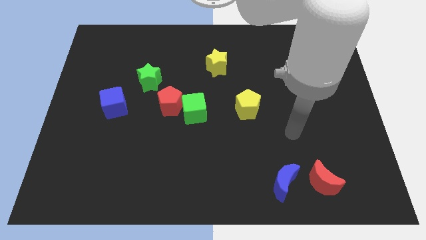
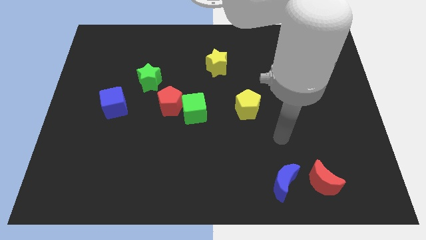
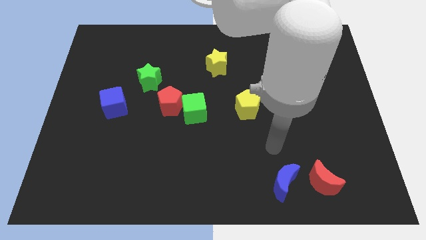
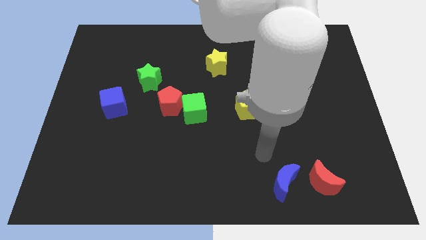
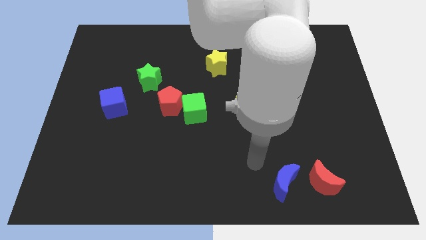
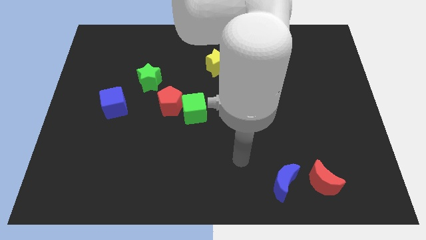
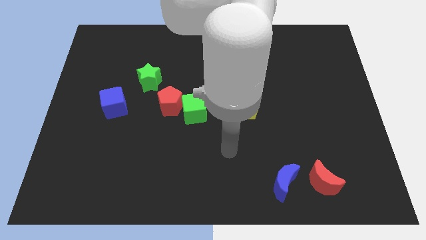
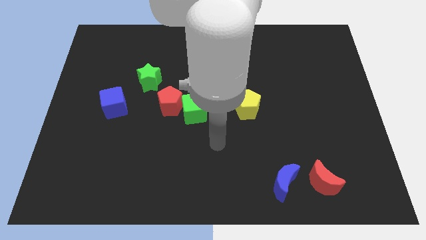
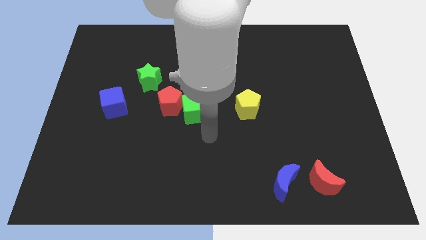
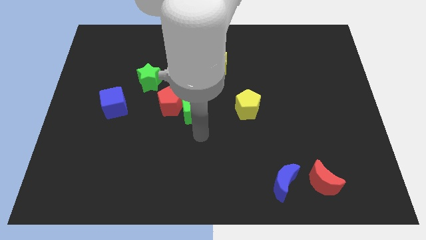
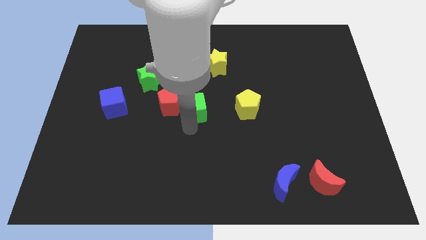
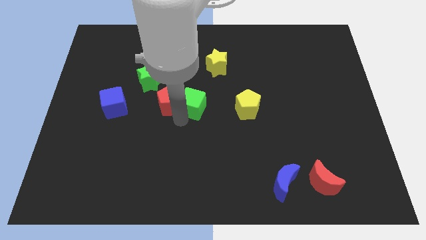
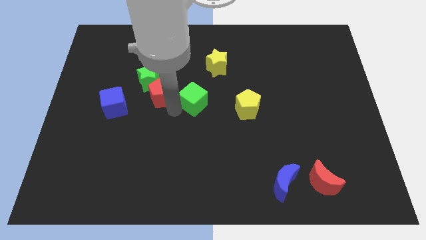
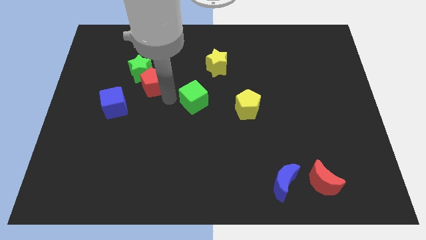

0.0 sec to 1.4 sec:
pull the green cube apart from the red pentagon

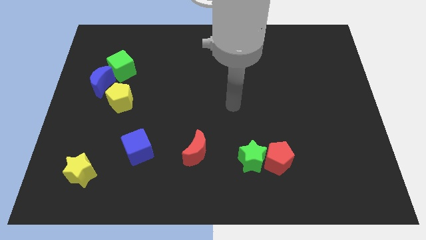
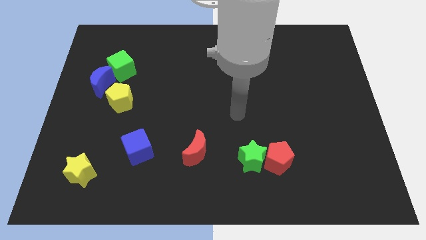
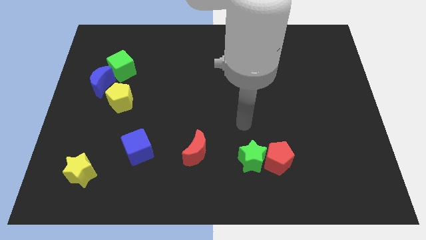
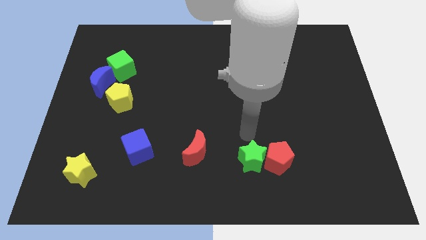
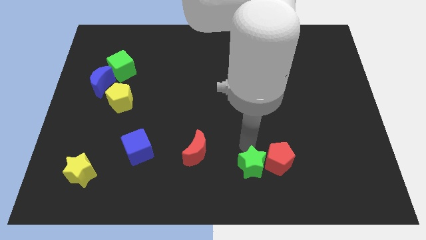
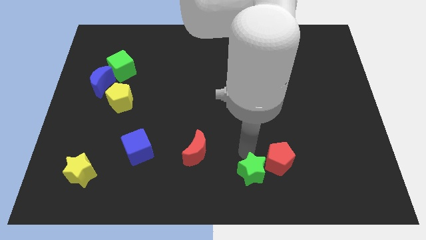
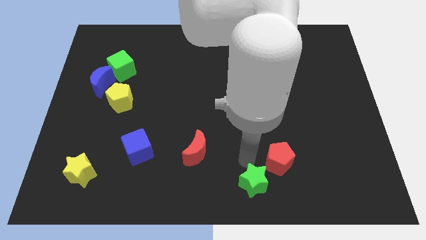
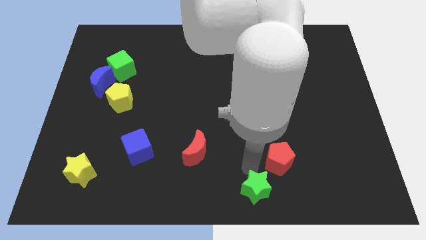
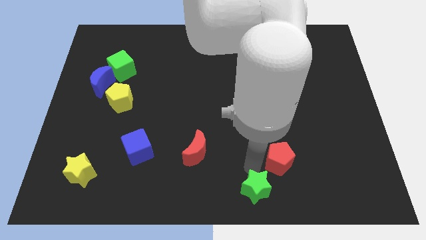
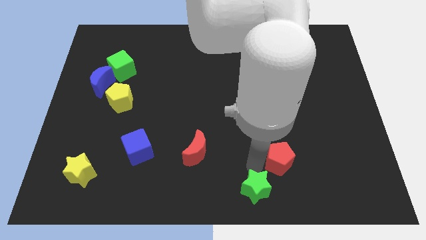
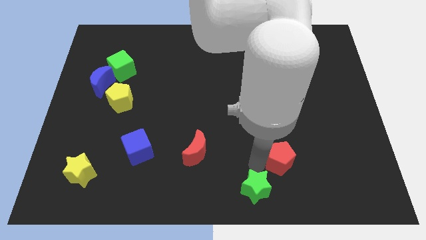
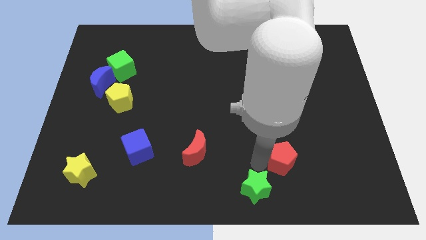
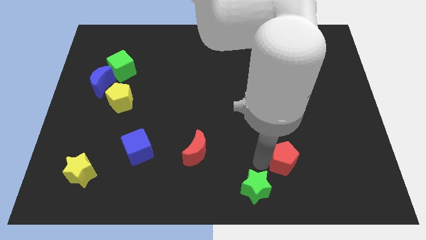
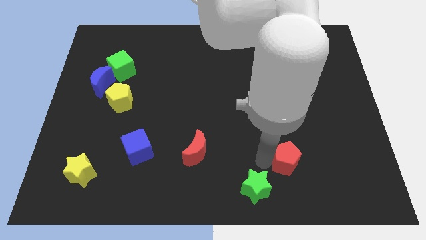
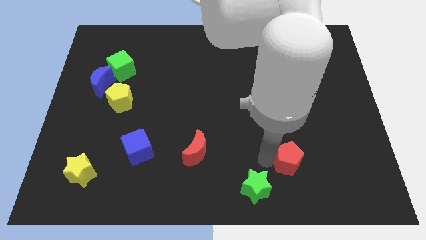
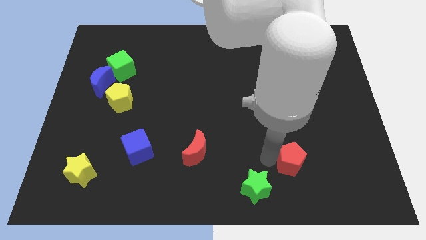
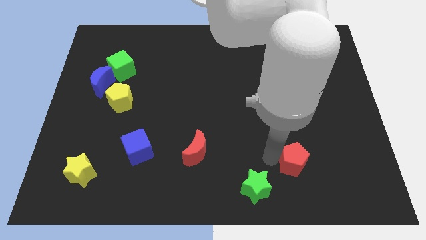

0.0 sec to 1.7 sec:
pull the red pentagon apart from the green star

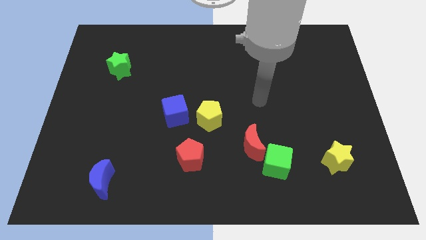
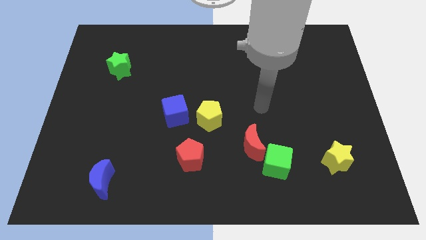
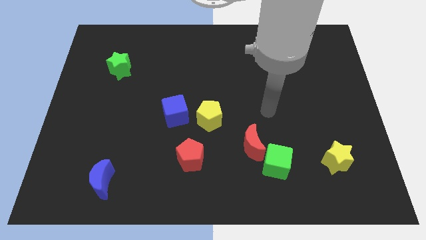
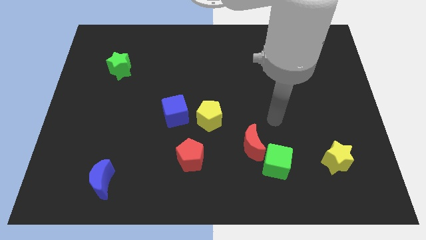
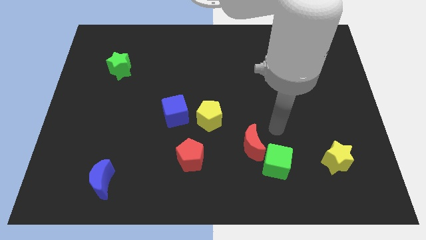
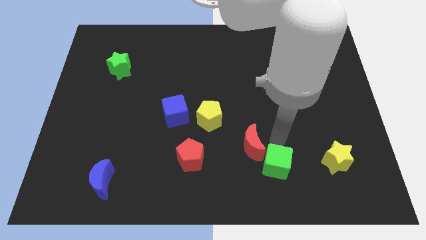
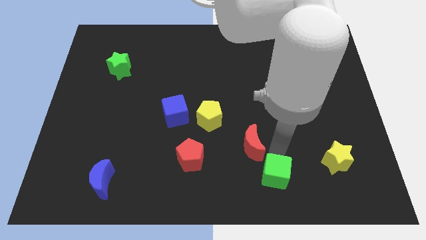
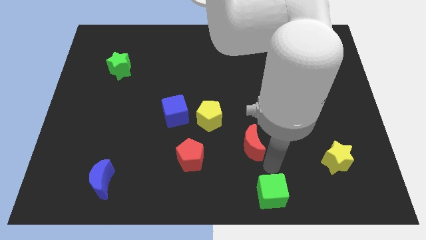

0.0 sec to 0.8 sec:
move the red moon away from the green cube

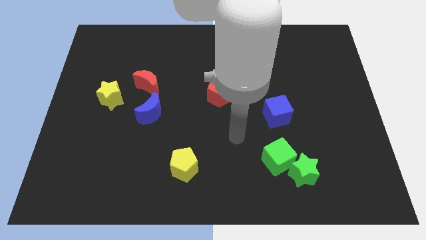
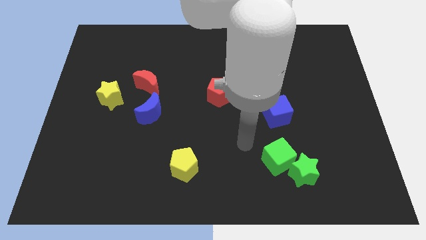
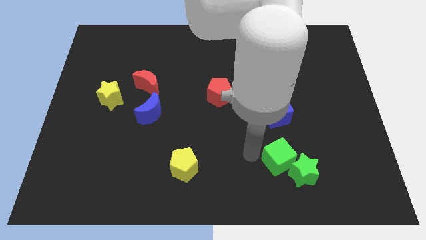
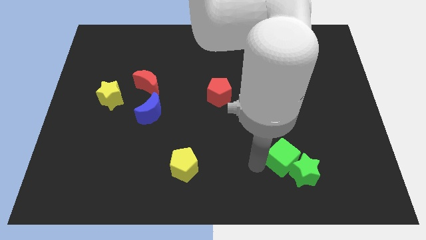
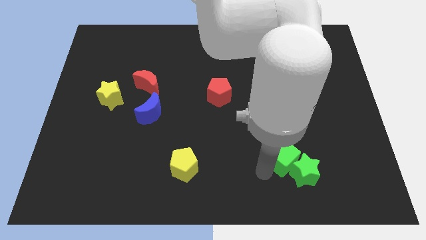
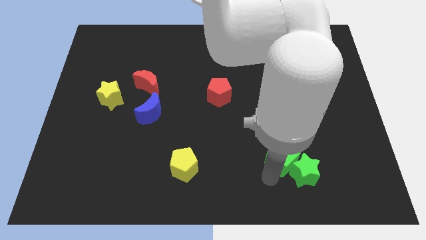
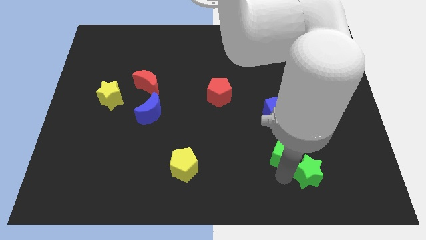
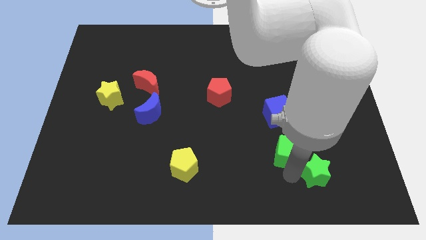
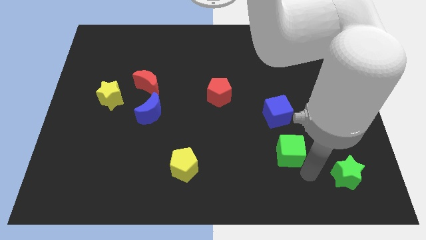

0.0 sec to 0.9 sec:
separate the green cube from the green star

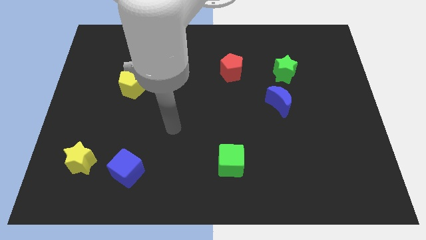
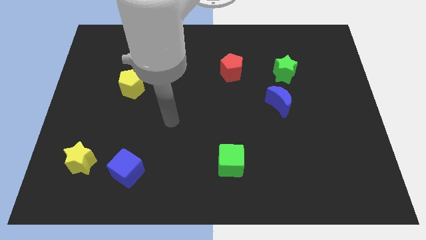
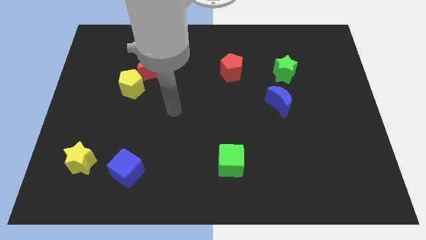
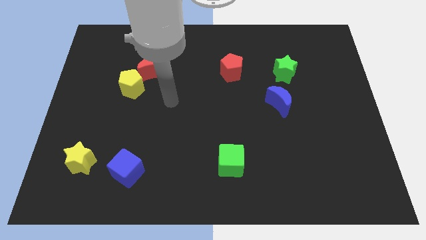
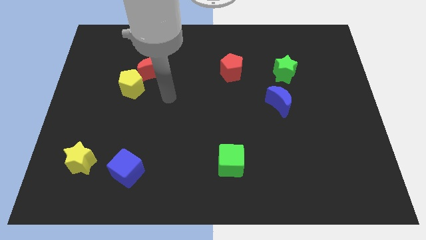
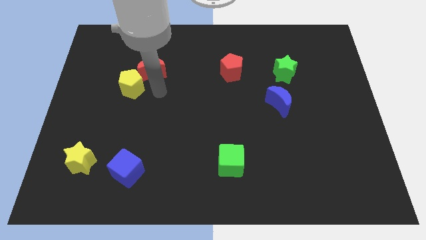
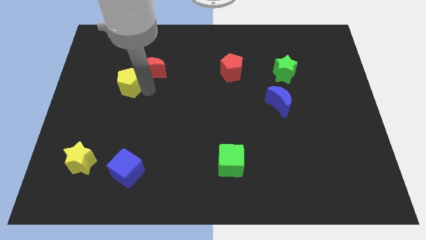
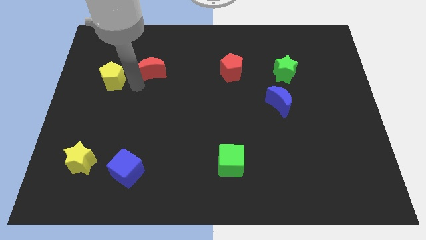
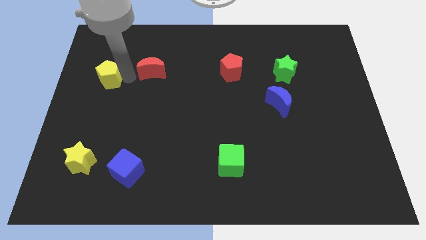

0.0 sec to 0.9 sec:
move the red moon away from the yellow pentagon

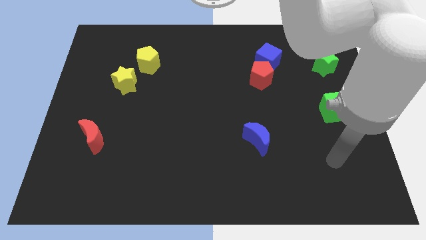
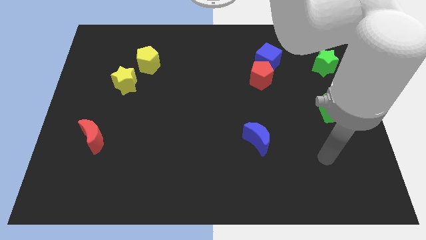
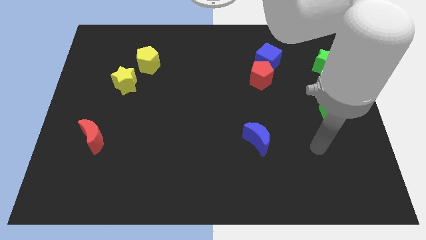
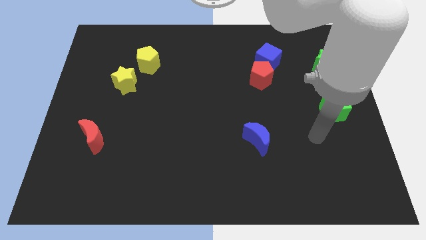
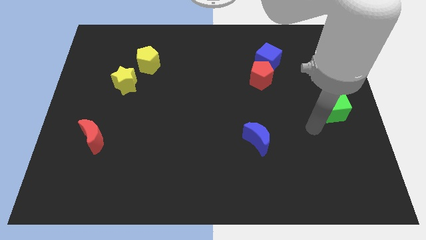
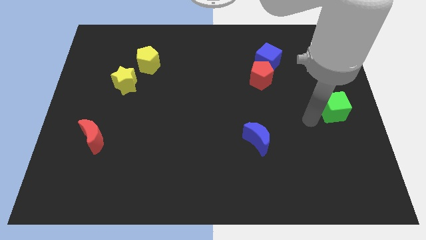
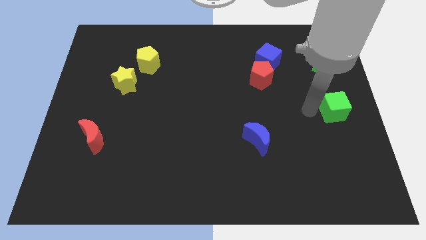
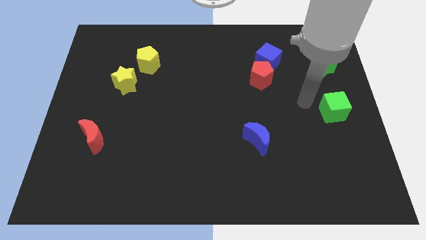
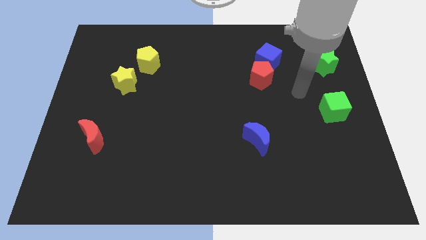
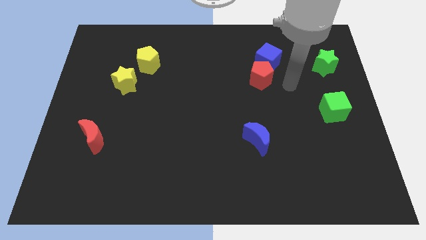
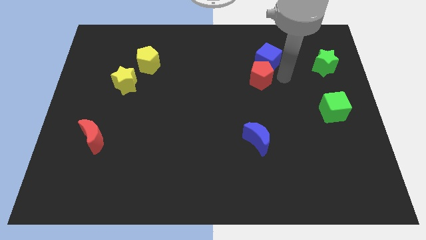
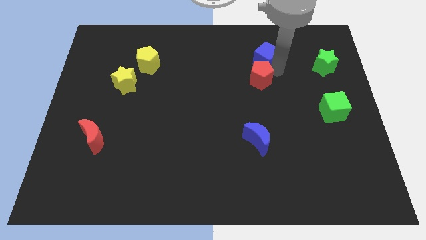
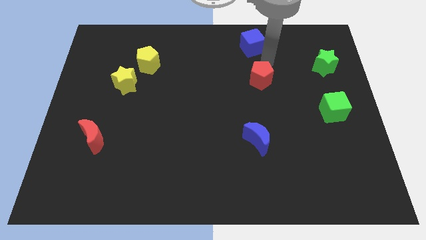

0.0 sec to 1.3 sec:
move the red pentagon away from the blue cube

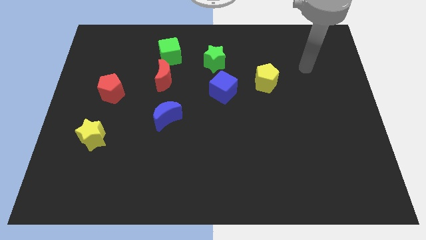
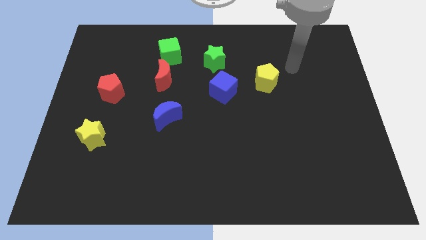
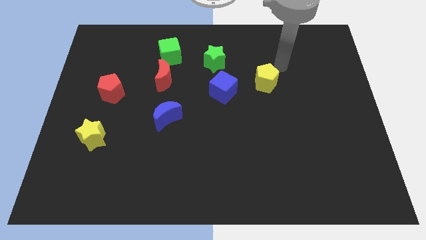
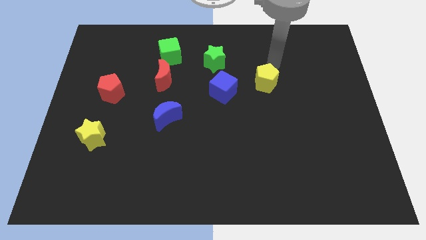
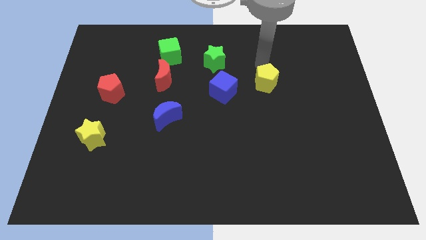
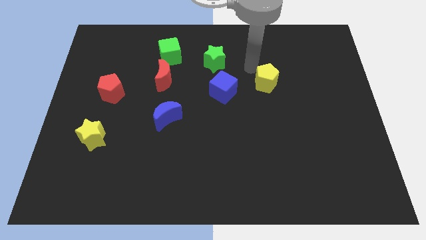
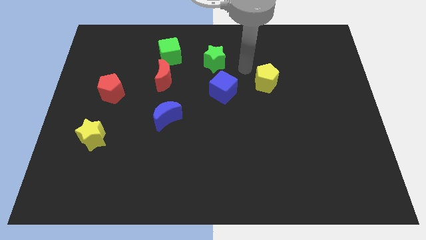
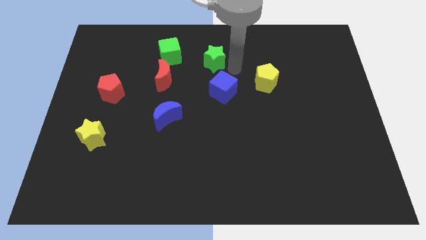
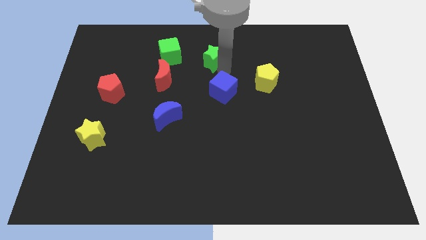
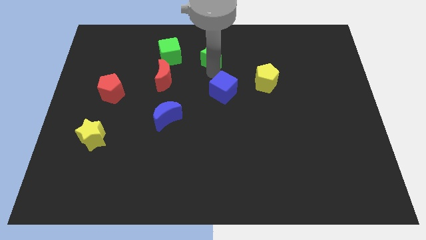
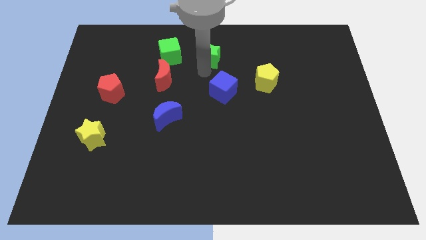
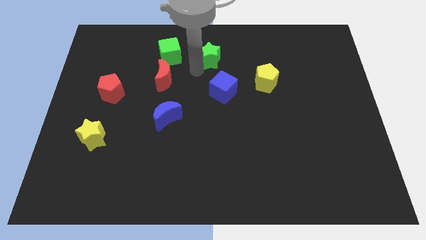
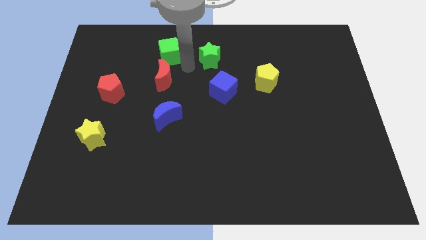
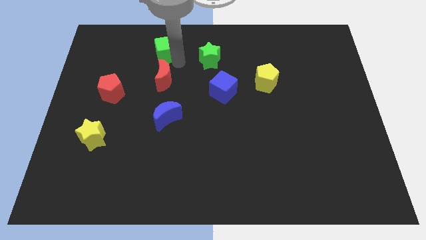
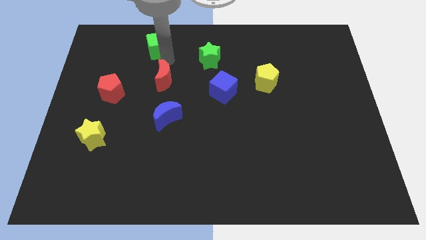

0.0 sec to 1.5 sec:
separate the red moon from the green cube

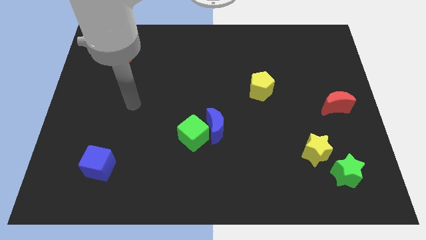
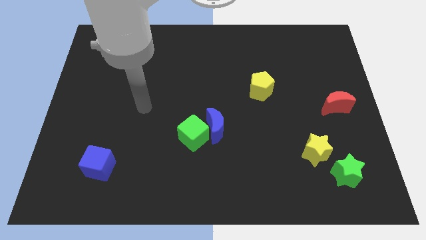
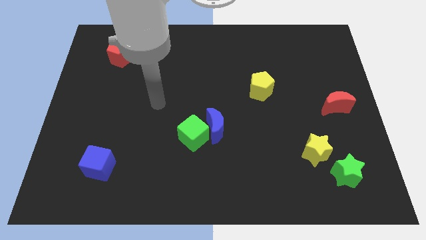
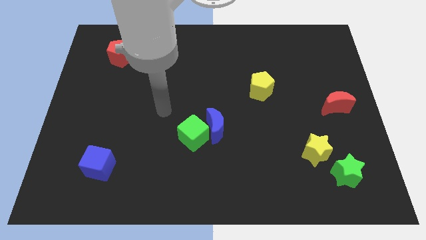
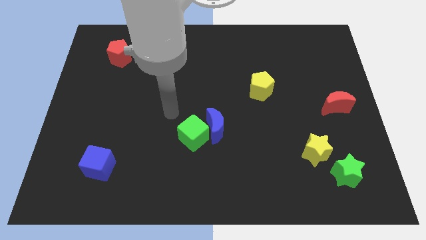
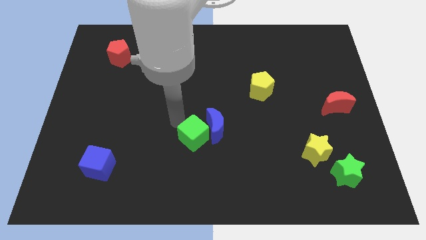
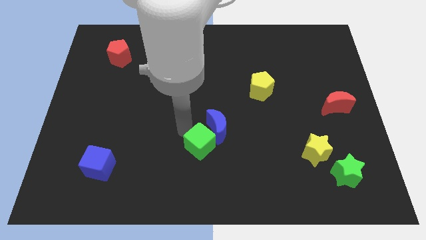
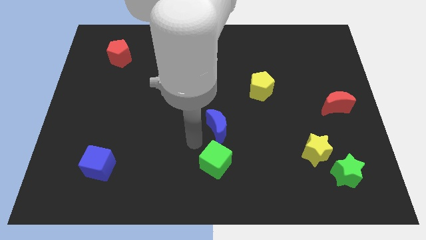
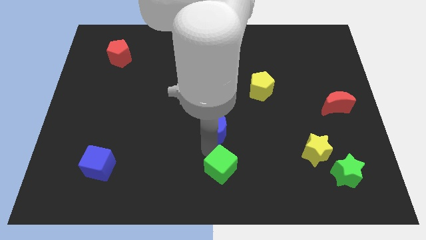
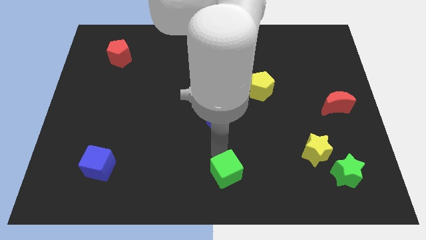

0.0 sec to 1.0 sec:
separate the blue moon from the green cube
